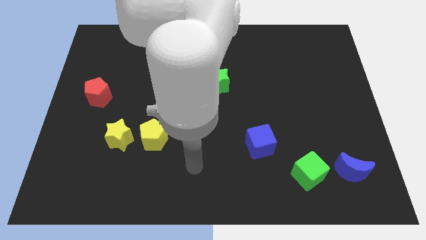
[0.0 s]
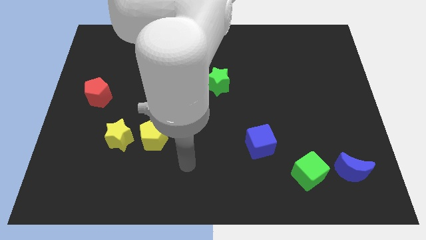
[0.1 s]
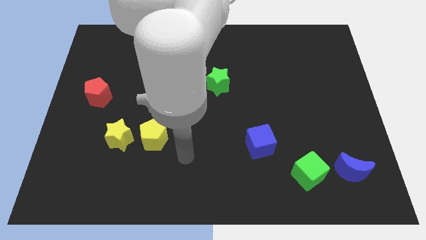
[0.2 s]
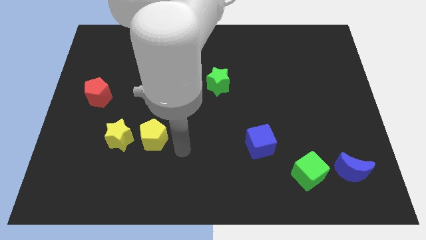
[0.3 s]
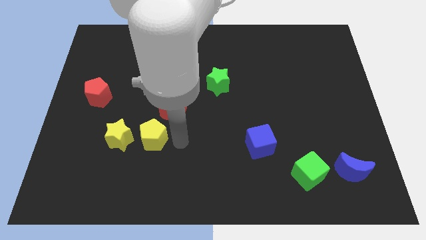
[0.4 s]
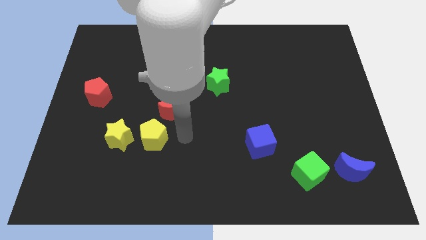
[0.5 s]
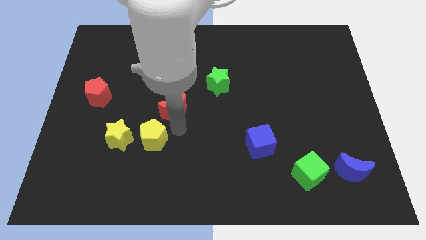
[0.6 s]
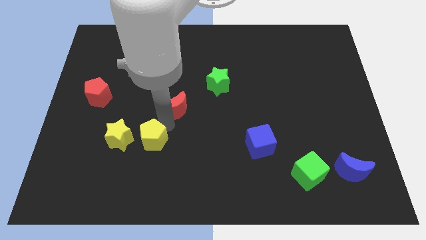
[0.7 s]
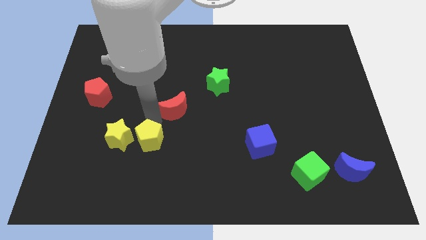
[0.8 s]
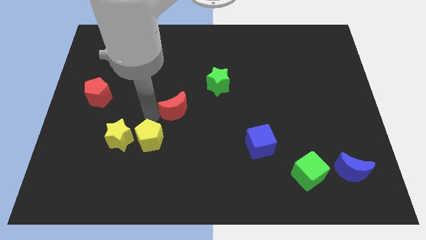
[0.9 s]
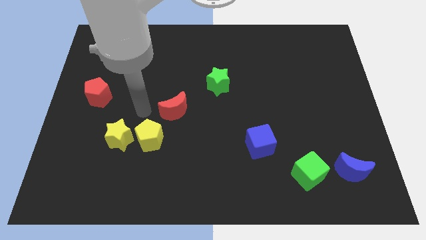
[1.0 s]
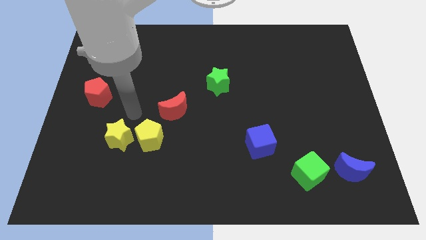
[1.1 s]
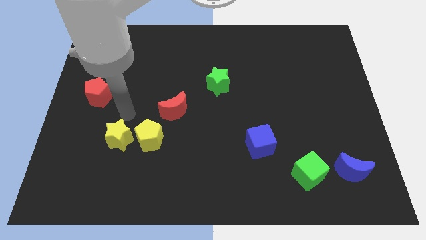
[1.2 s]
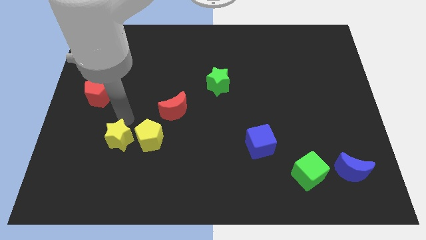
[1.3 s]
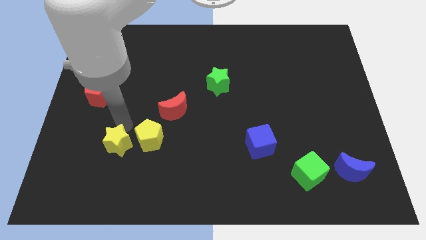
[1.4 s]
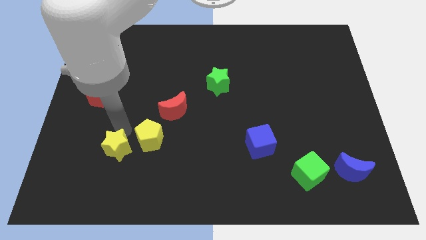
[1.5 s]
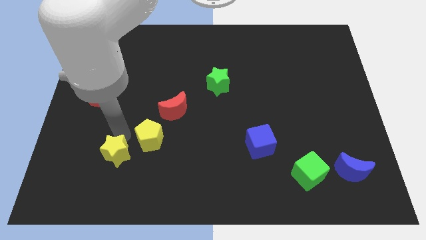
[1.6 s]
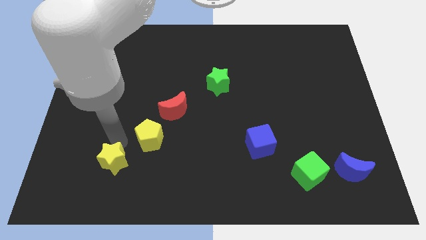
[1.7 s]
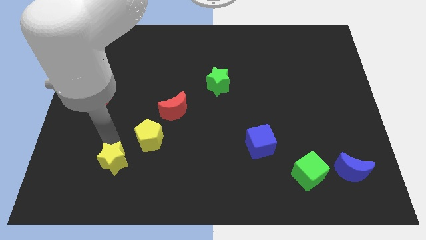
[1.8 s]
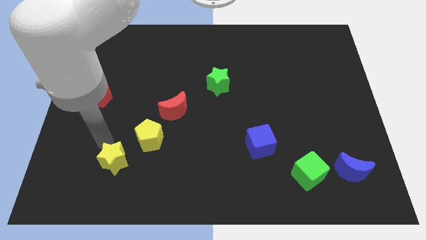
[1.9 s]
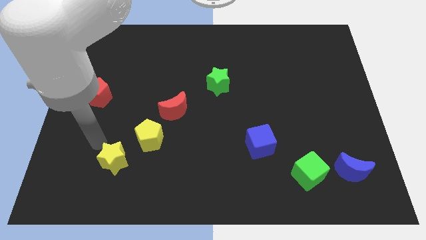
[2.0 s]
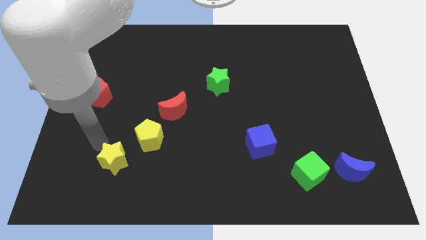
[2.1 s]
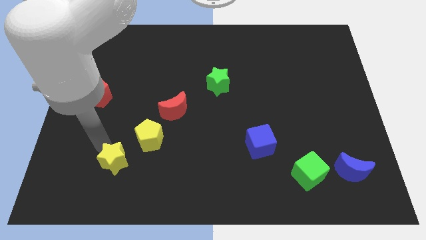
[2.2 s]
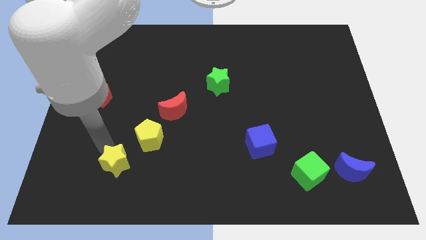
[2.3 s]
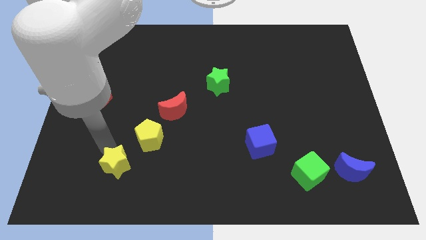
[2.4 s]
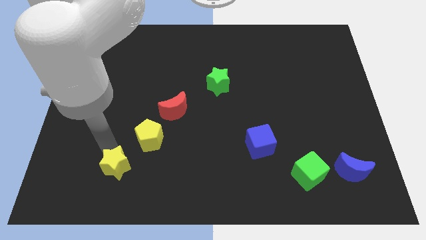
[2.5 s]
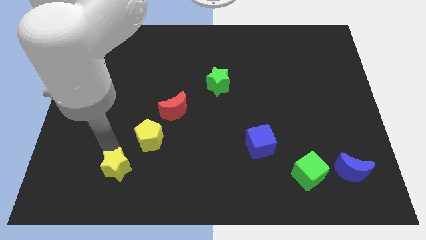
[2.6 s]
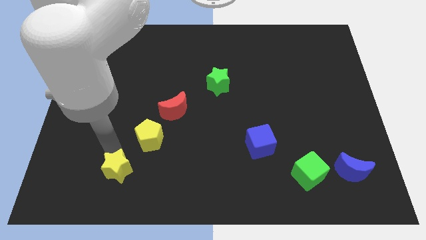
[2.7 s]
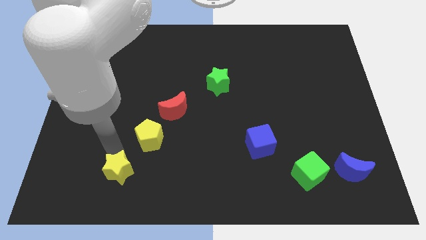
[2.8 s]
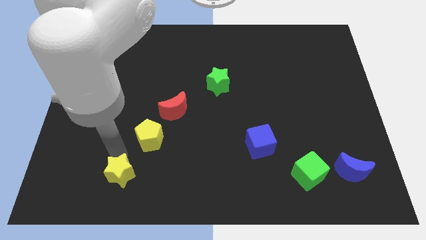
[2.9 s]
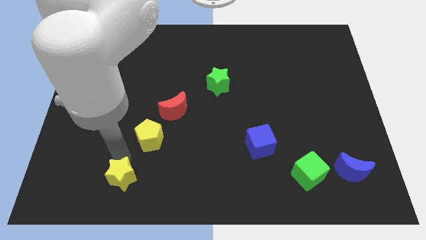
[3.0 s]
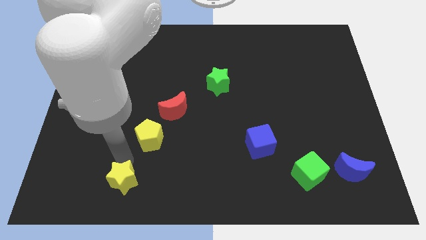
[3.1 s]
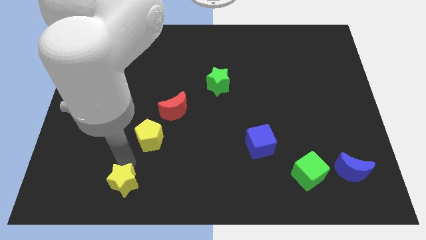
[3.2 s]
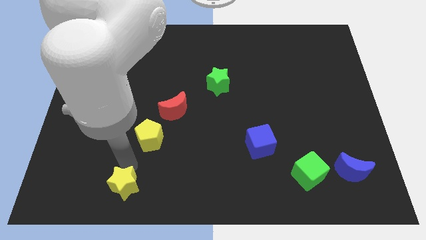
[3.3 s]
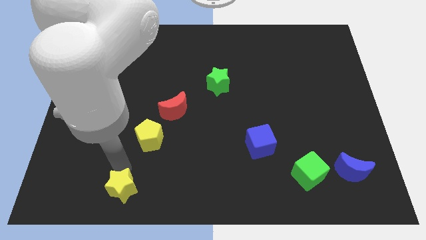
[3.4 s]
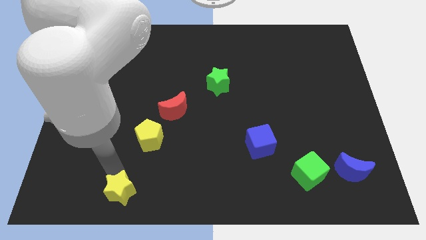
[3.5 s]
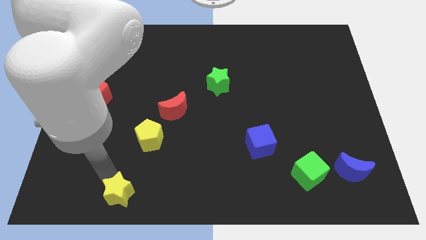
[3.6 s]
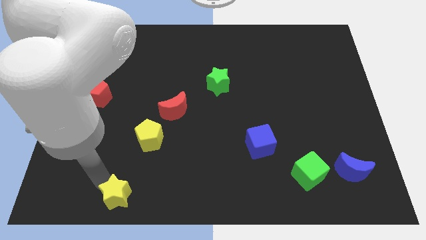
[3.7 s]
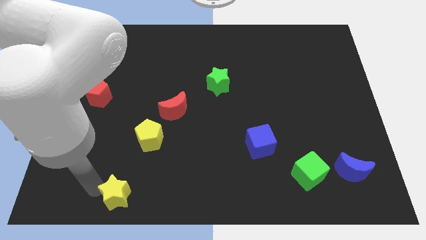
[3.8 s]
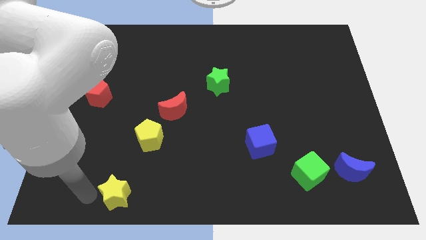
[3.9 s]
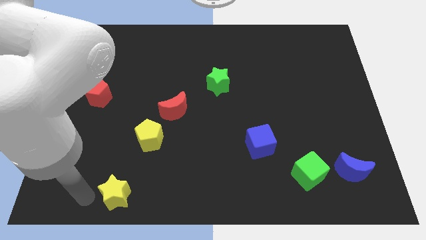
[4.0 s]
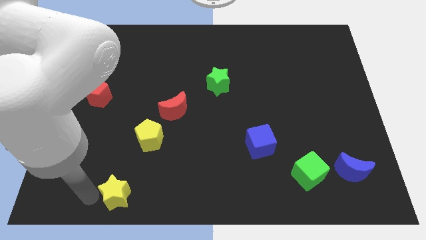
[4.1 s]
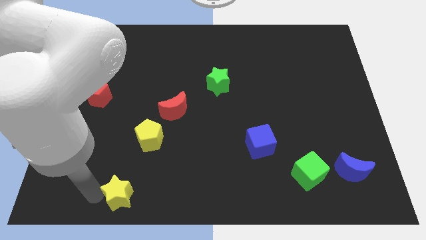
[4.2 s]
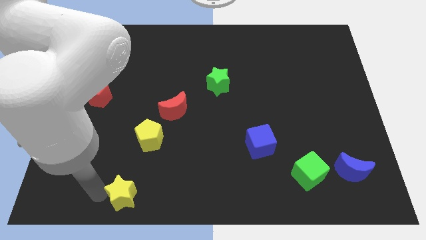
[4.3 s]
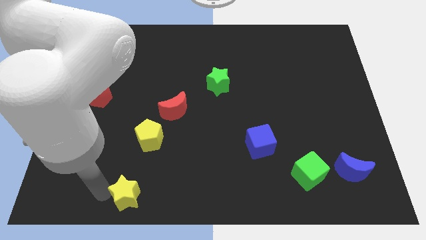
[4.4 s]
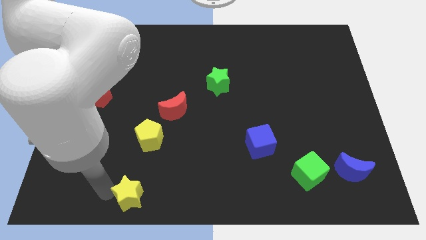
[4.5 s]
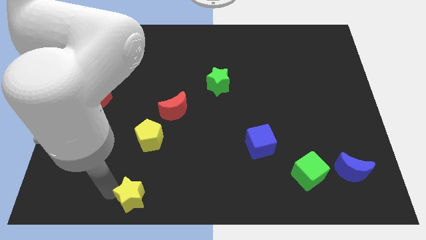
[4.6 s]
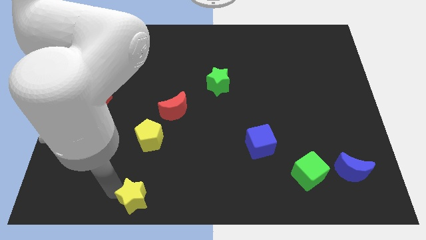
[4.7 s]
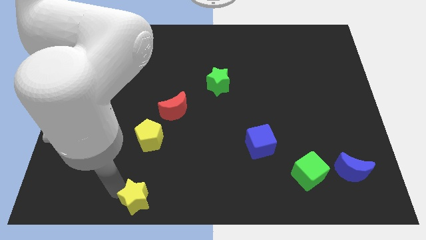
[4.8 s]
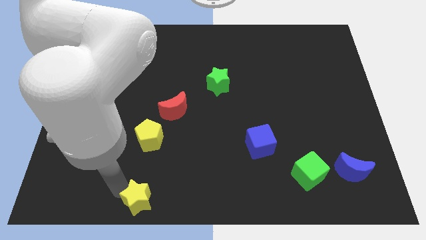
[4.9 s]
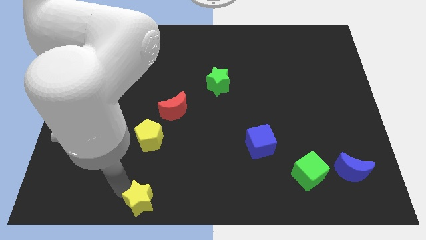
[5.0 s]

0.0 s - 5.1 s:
push the yellow star to the bottom
